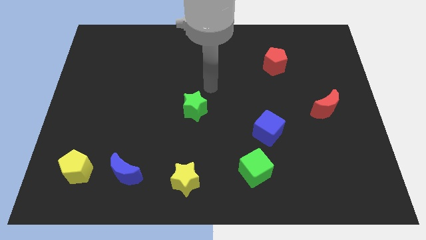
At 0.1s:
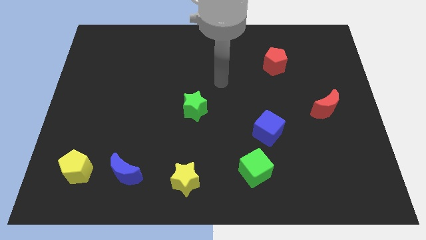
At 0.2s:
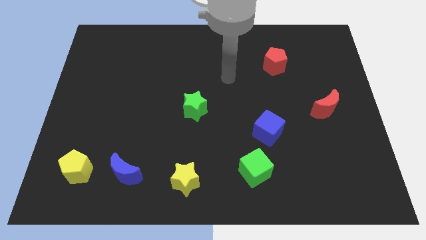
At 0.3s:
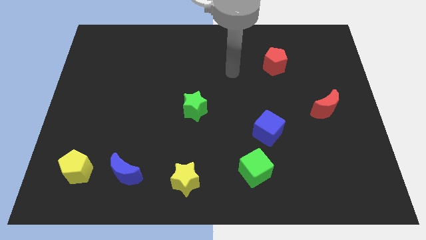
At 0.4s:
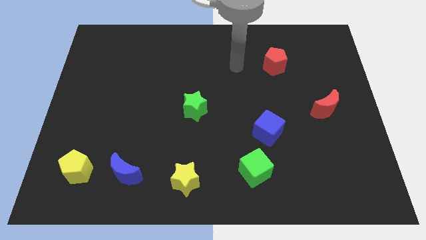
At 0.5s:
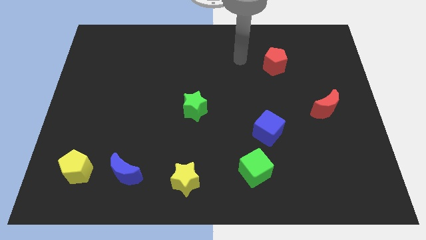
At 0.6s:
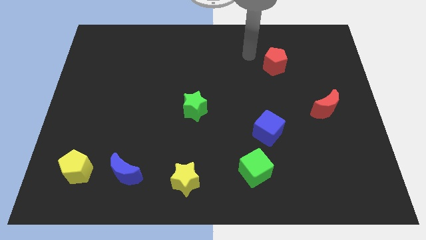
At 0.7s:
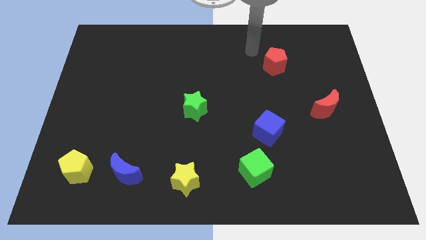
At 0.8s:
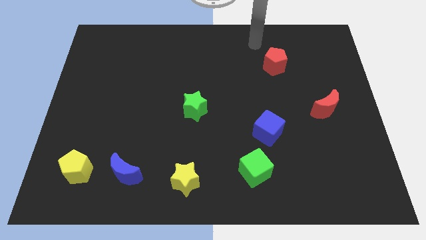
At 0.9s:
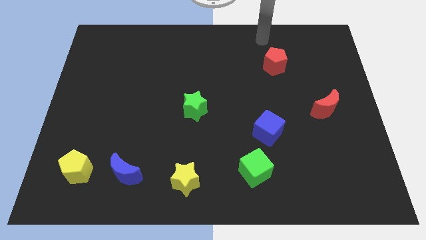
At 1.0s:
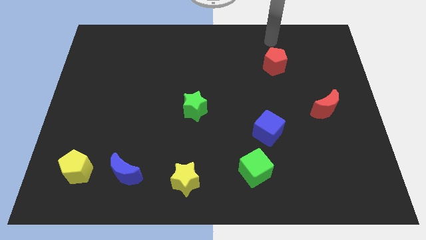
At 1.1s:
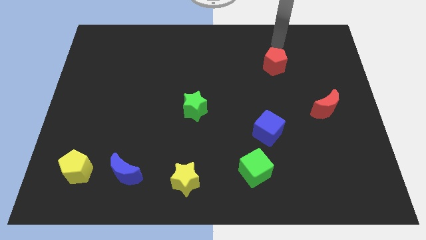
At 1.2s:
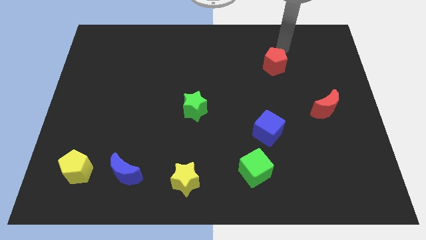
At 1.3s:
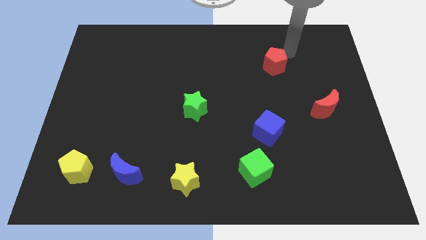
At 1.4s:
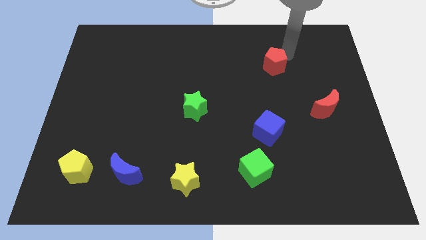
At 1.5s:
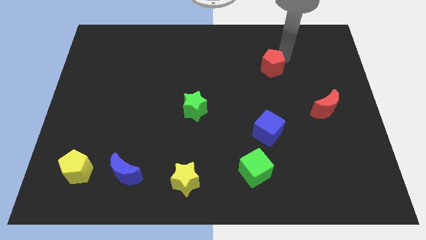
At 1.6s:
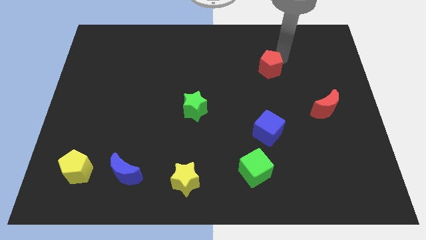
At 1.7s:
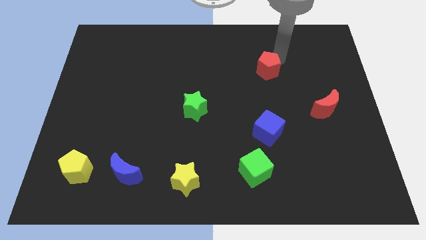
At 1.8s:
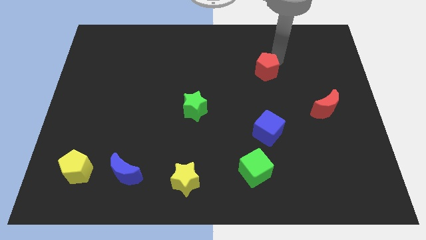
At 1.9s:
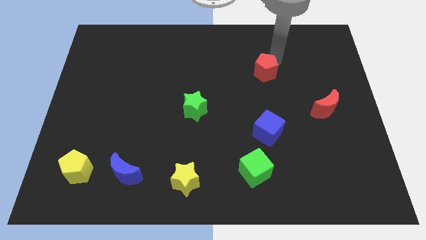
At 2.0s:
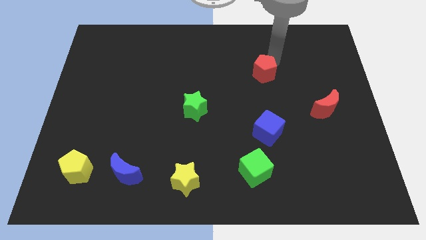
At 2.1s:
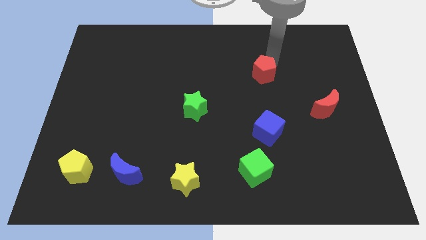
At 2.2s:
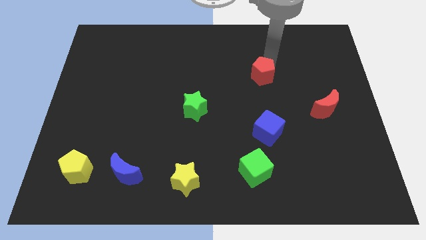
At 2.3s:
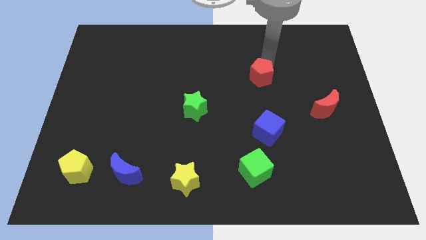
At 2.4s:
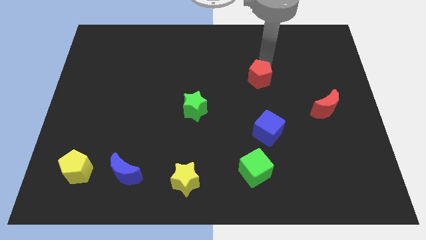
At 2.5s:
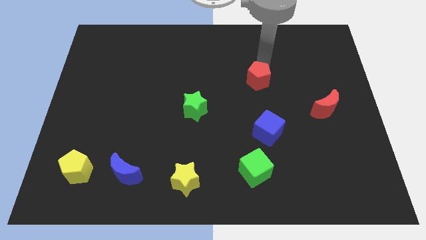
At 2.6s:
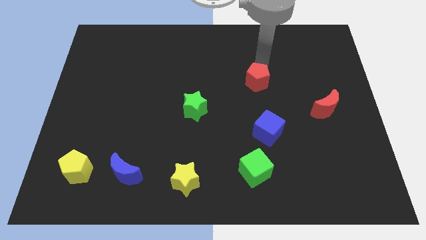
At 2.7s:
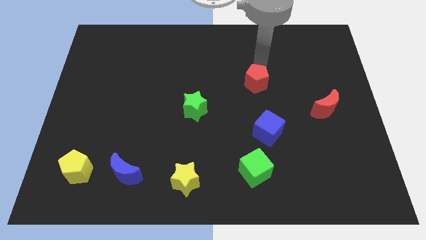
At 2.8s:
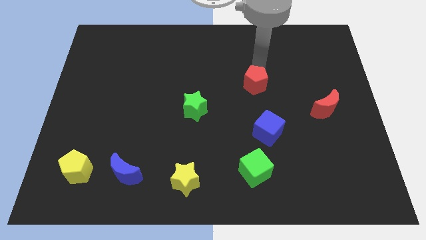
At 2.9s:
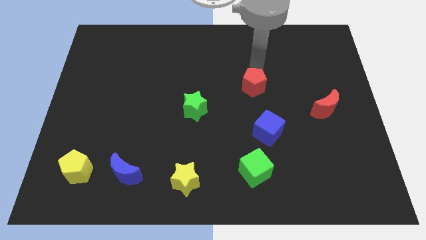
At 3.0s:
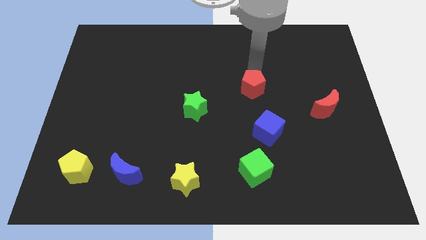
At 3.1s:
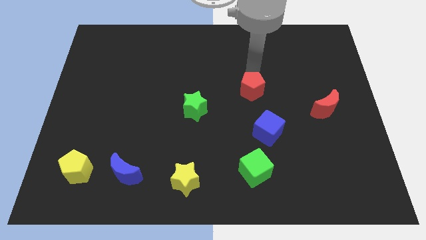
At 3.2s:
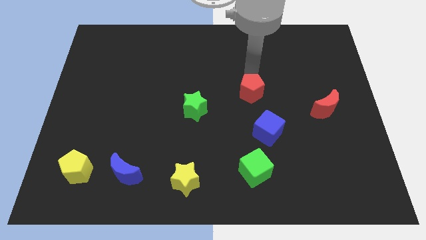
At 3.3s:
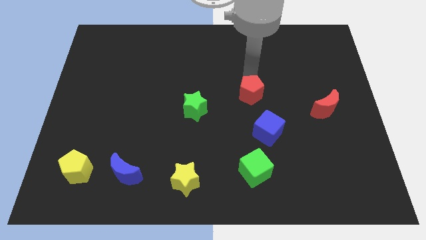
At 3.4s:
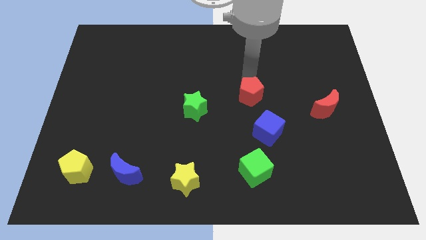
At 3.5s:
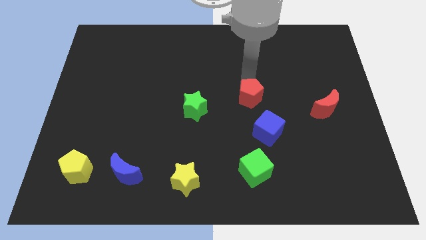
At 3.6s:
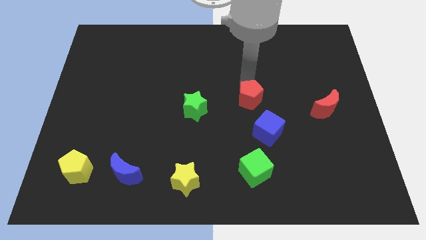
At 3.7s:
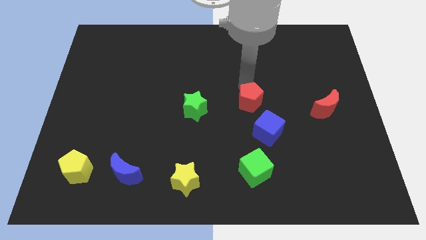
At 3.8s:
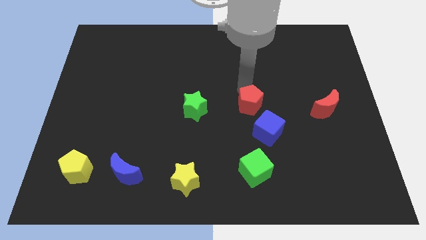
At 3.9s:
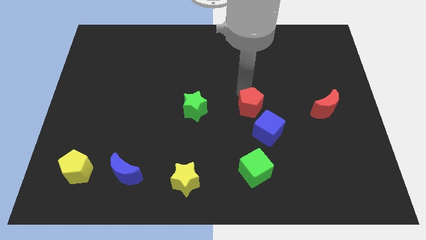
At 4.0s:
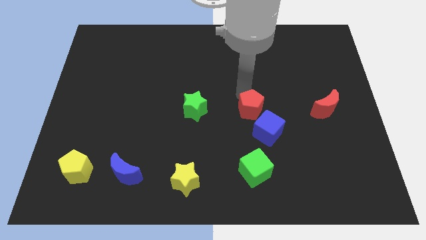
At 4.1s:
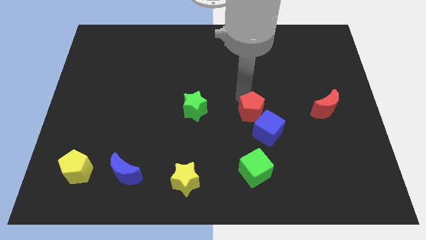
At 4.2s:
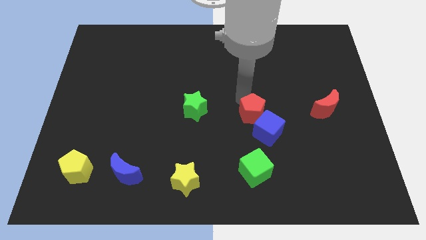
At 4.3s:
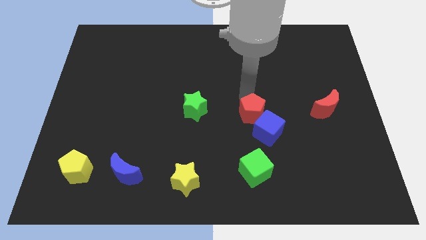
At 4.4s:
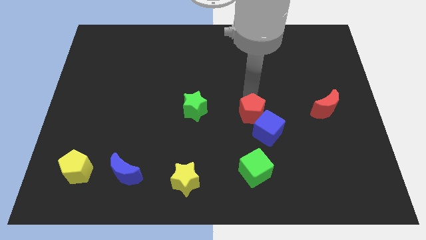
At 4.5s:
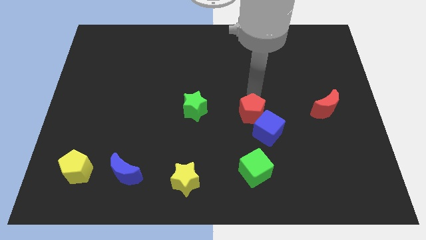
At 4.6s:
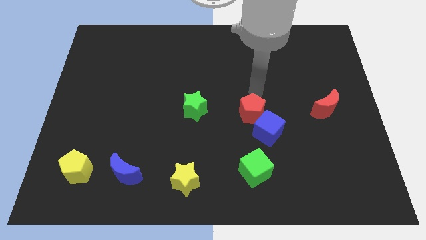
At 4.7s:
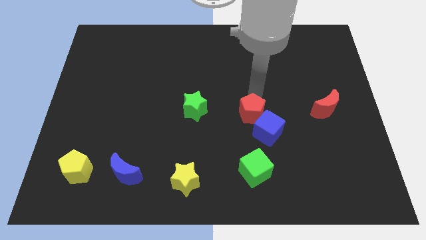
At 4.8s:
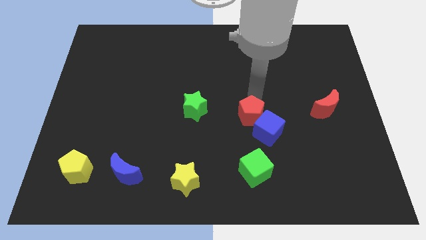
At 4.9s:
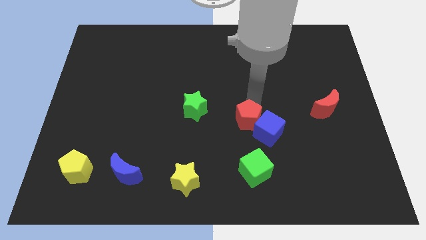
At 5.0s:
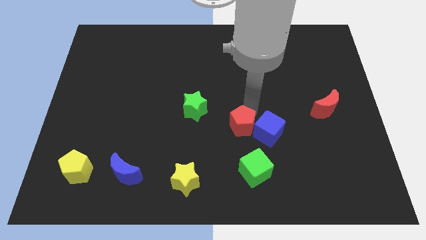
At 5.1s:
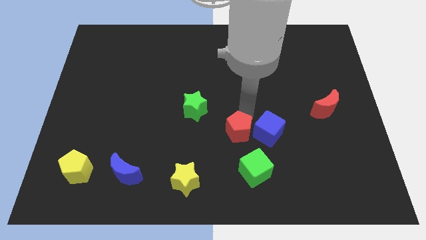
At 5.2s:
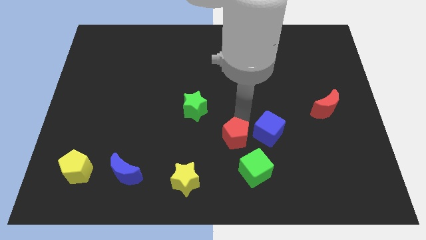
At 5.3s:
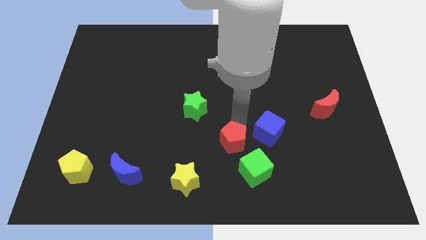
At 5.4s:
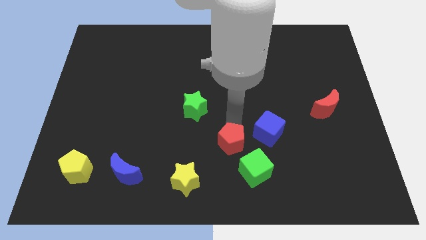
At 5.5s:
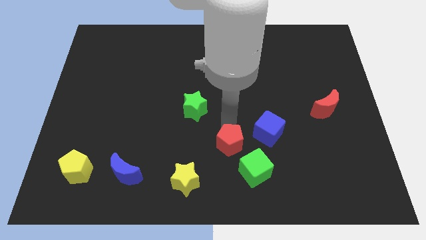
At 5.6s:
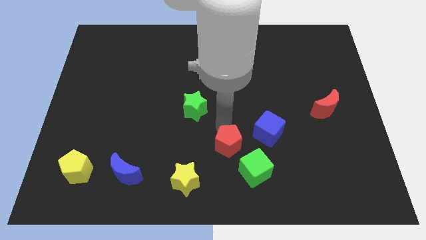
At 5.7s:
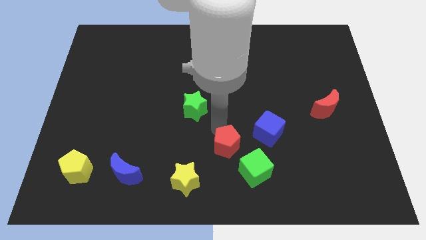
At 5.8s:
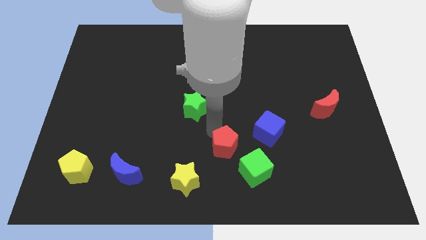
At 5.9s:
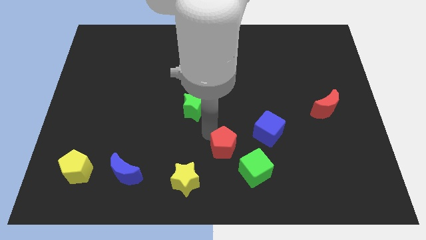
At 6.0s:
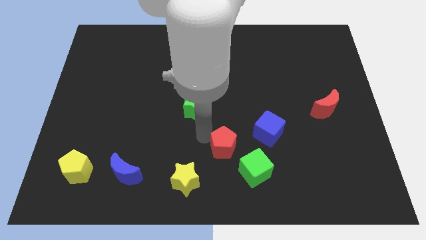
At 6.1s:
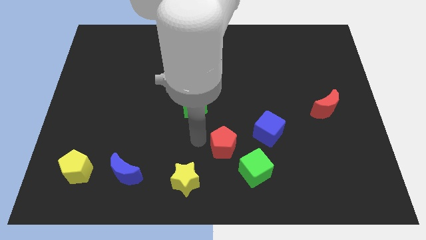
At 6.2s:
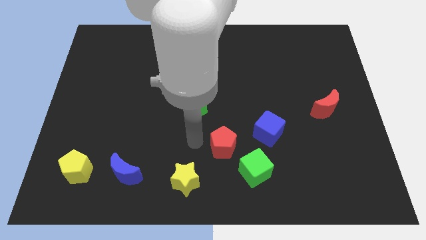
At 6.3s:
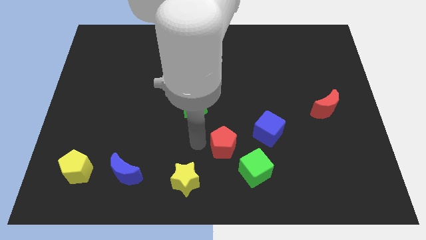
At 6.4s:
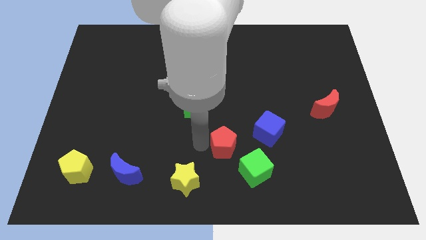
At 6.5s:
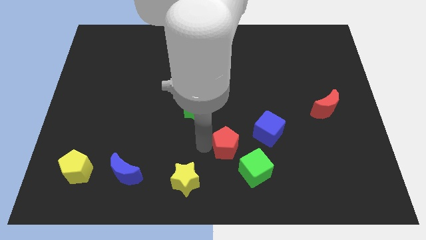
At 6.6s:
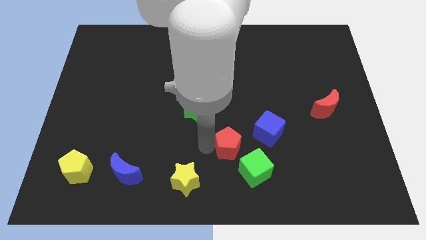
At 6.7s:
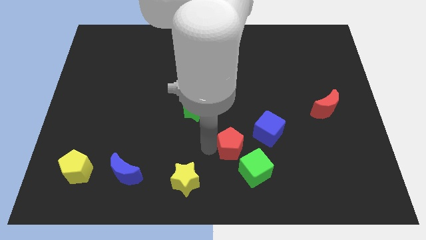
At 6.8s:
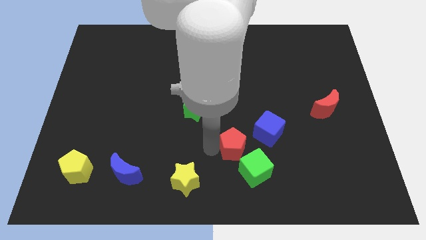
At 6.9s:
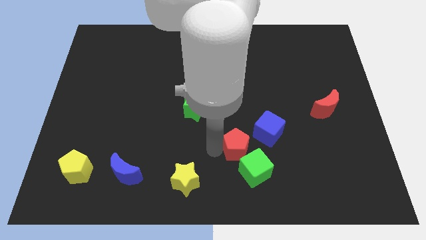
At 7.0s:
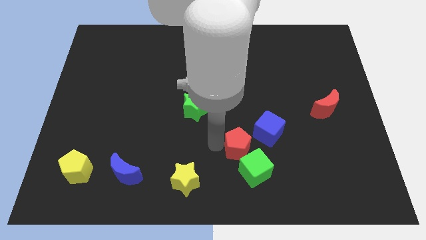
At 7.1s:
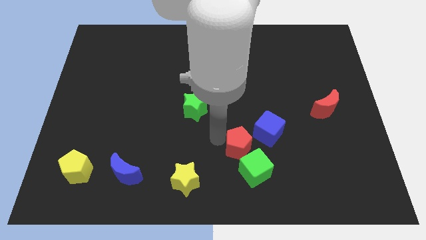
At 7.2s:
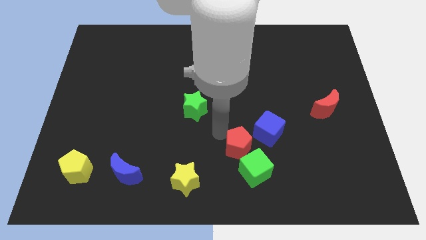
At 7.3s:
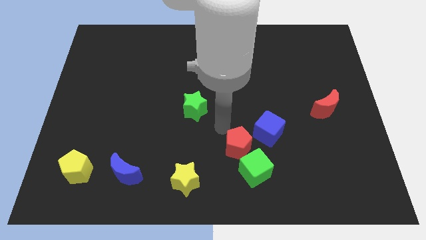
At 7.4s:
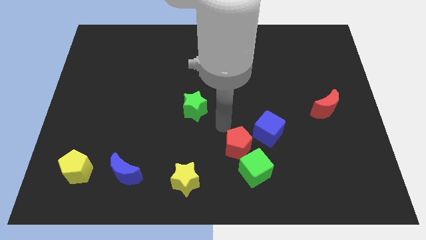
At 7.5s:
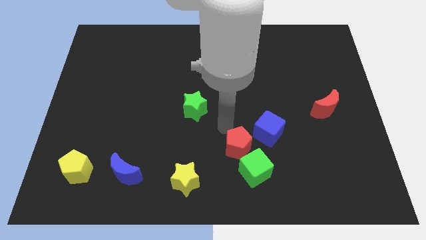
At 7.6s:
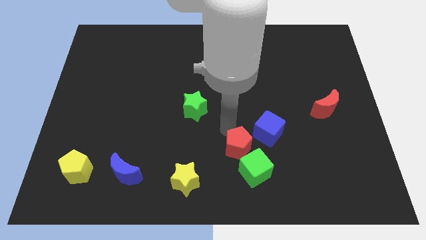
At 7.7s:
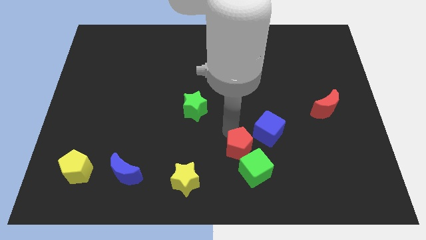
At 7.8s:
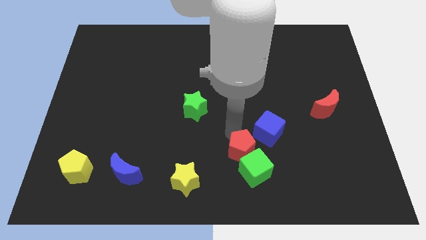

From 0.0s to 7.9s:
move the red pentagon to the green cube
